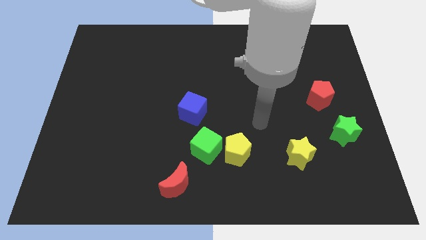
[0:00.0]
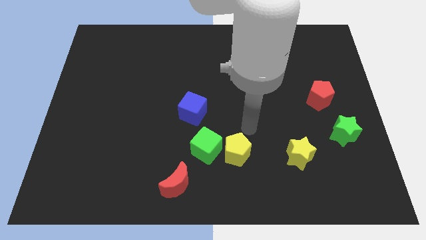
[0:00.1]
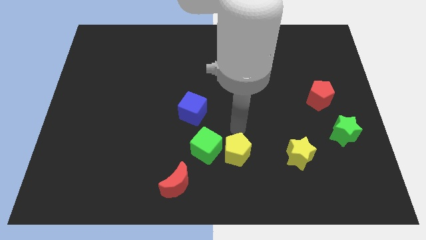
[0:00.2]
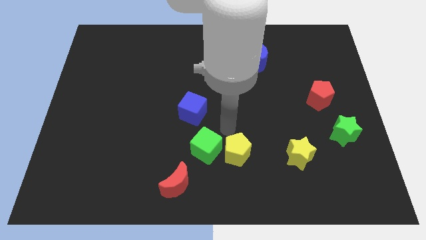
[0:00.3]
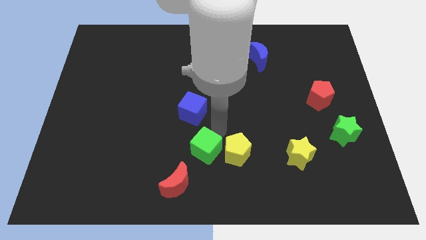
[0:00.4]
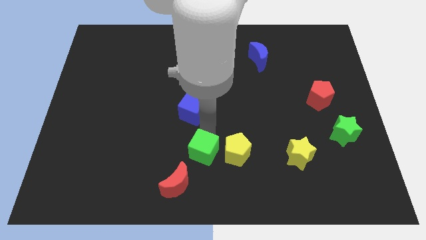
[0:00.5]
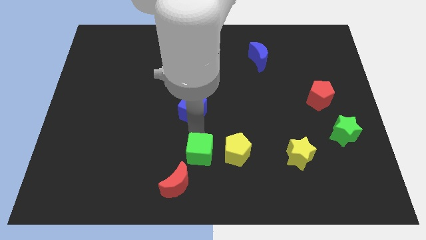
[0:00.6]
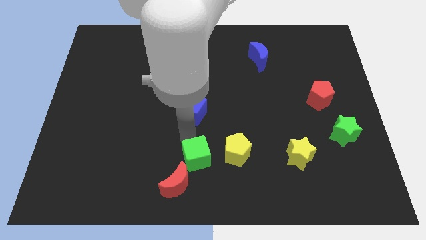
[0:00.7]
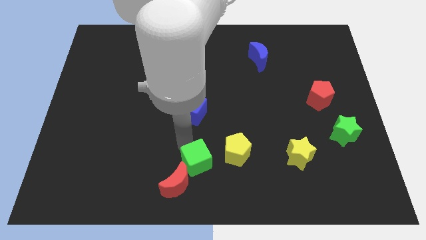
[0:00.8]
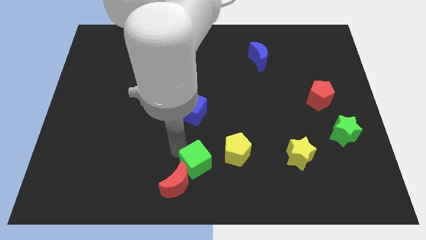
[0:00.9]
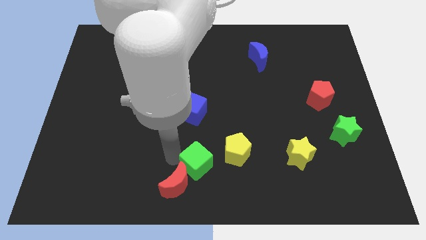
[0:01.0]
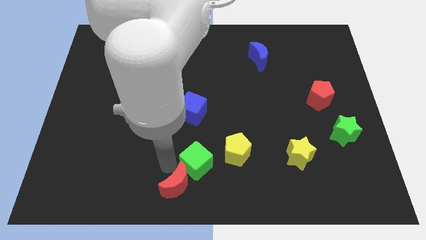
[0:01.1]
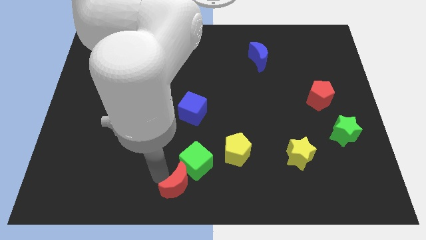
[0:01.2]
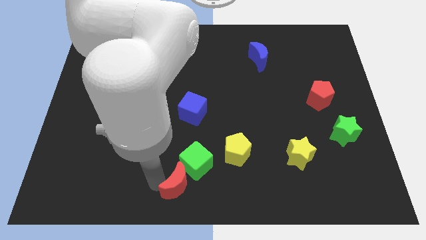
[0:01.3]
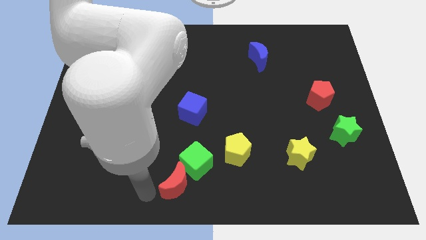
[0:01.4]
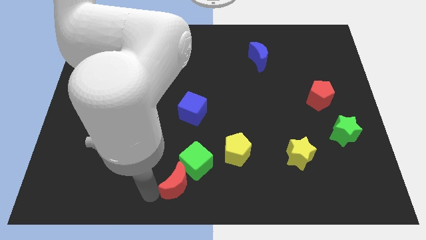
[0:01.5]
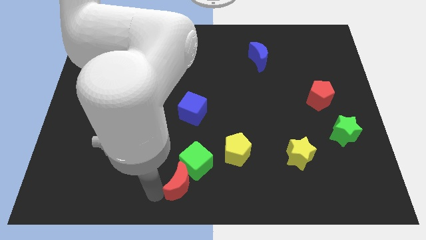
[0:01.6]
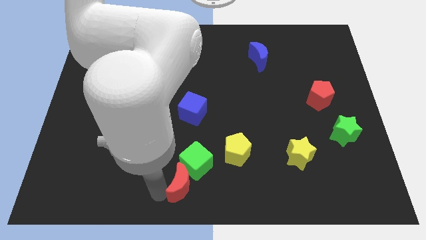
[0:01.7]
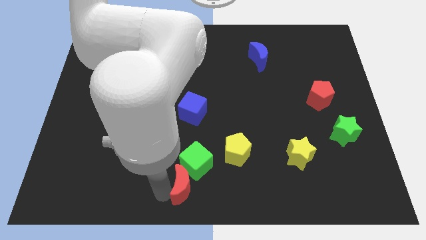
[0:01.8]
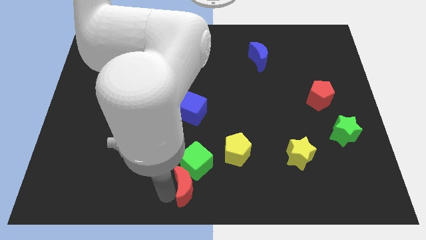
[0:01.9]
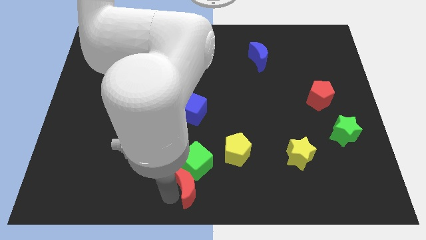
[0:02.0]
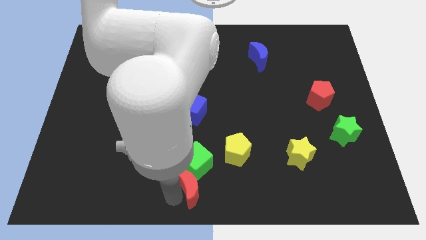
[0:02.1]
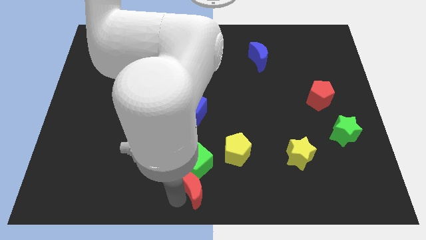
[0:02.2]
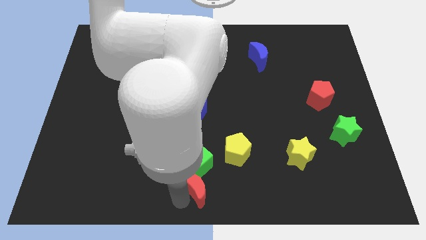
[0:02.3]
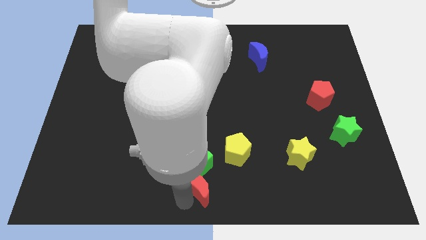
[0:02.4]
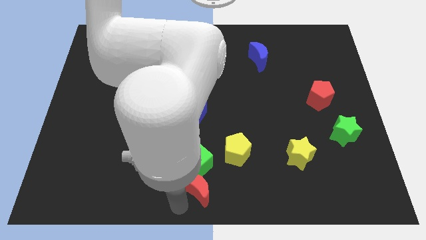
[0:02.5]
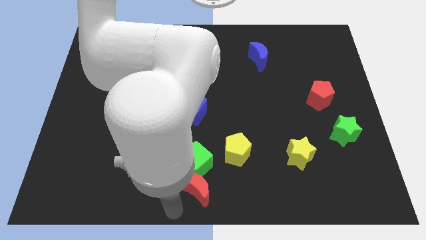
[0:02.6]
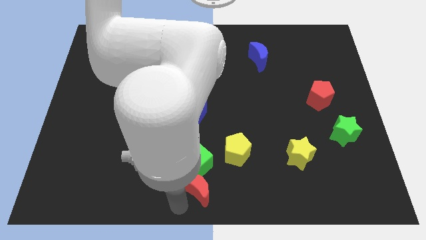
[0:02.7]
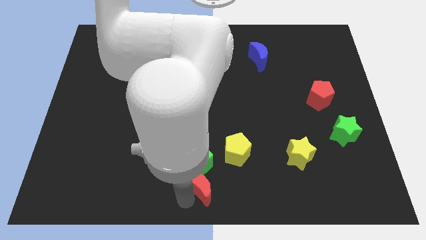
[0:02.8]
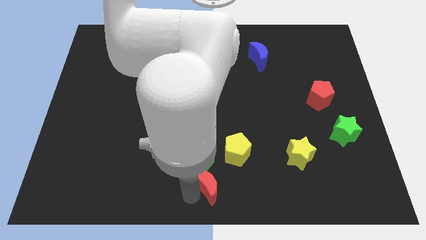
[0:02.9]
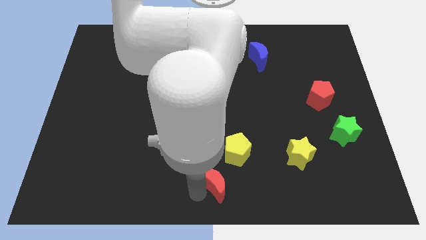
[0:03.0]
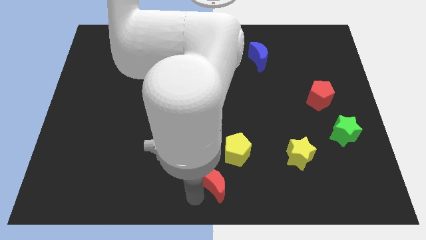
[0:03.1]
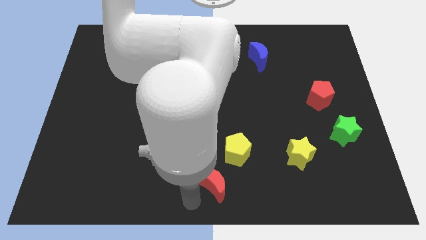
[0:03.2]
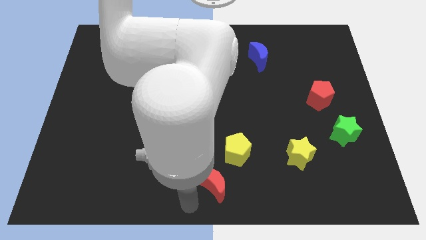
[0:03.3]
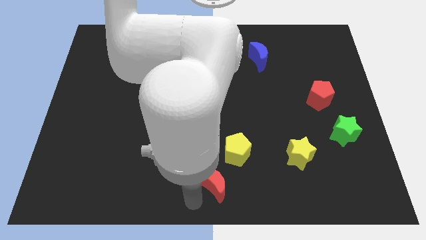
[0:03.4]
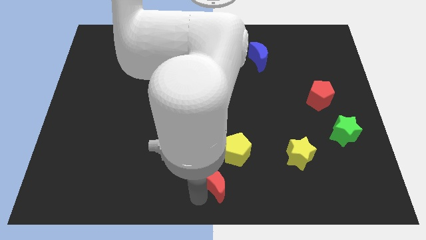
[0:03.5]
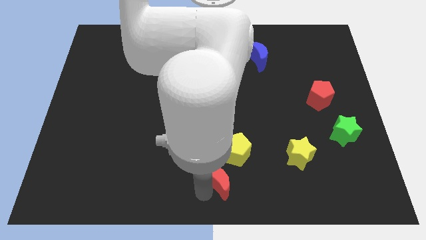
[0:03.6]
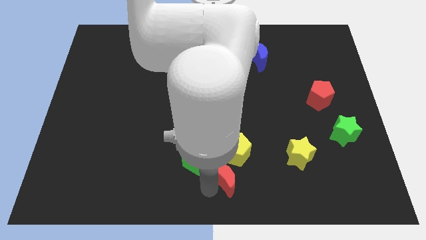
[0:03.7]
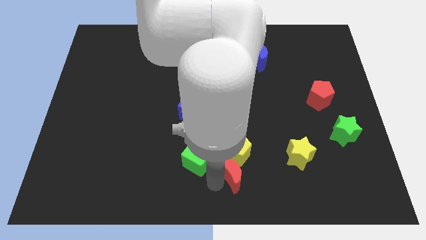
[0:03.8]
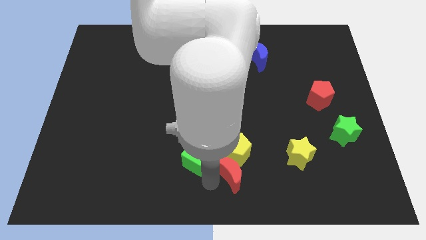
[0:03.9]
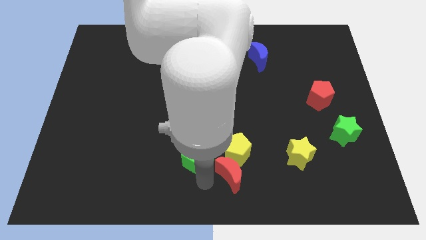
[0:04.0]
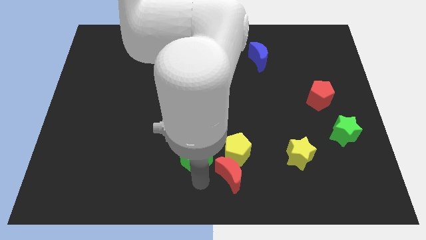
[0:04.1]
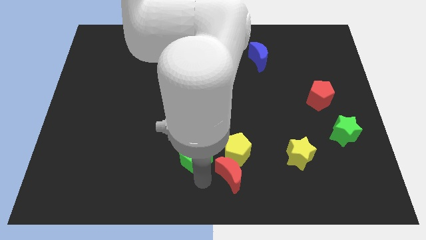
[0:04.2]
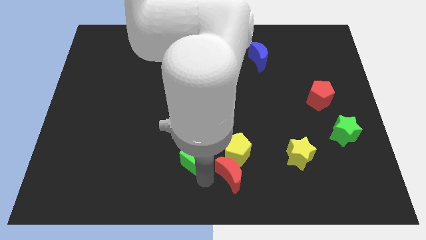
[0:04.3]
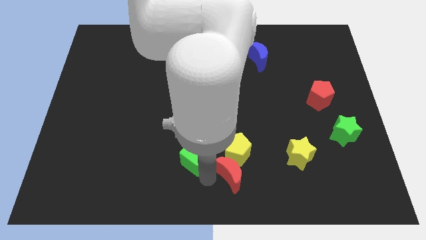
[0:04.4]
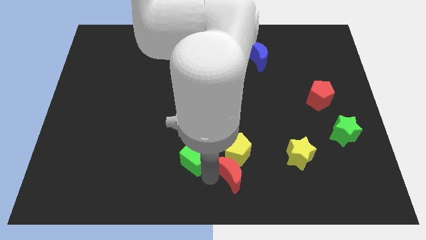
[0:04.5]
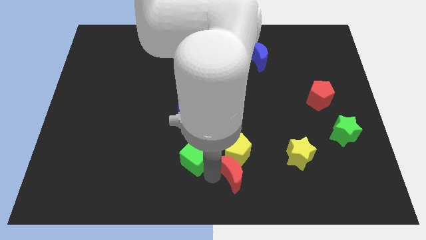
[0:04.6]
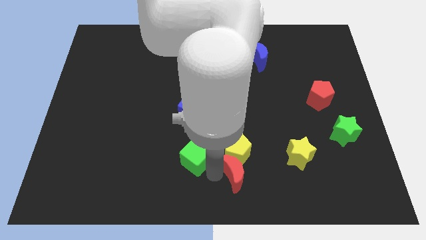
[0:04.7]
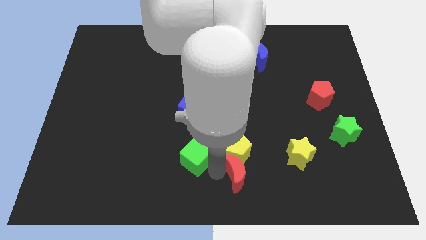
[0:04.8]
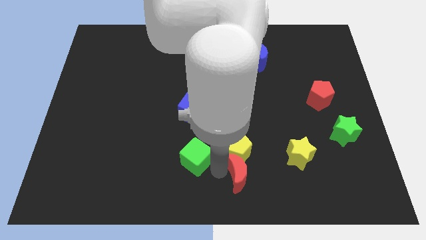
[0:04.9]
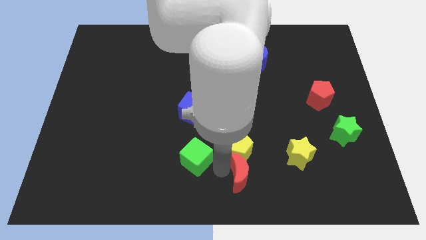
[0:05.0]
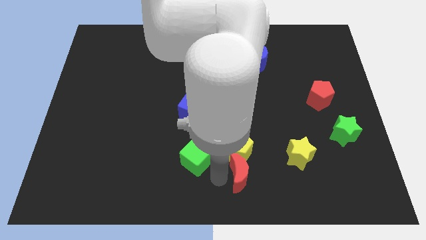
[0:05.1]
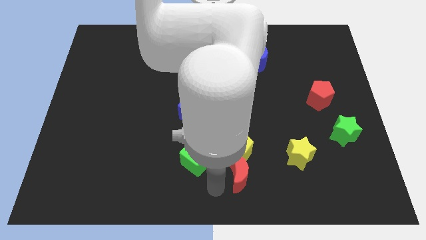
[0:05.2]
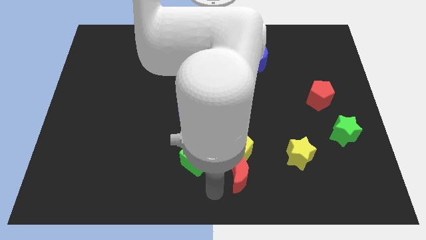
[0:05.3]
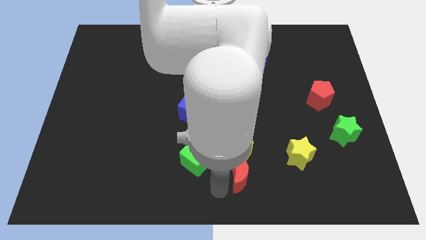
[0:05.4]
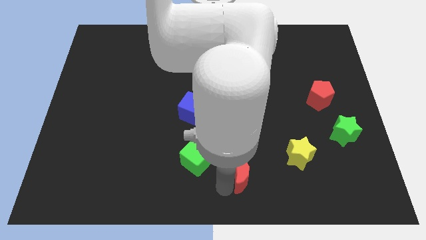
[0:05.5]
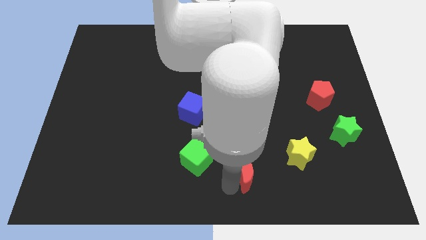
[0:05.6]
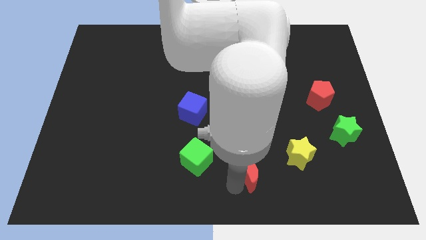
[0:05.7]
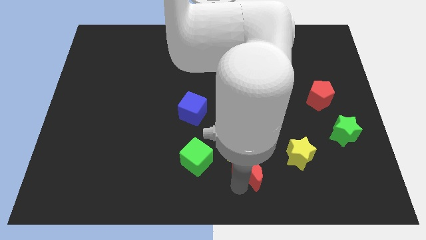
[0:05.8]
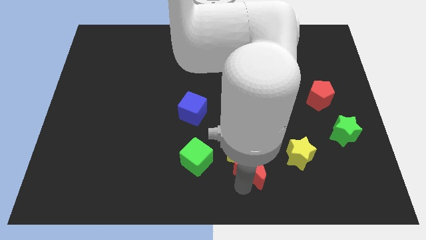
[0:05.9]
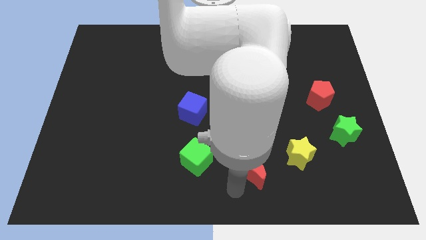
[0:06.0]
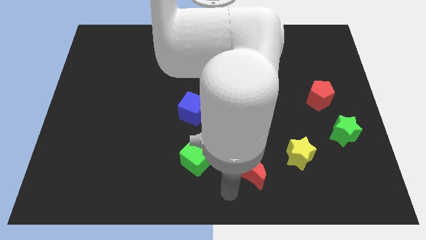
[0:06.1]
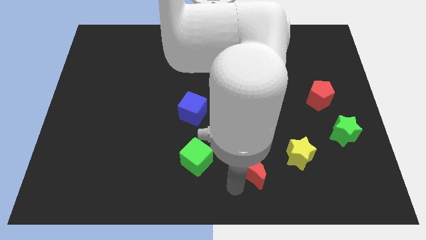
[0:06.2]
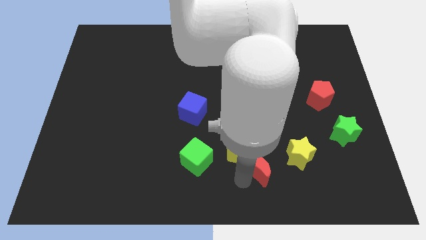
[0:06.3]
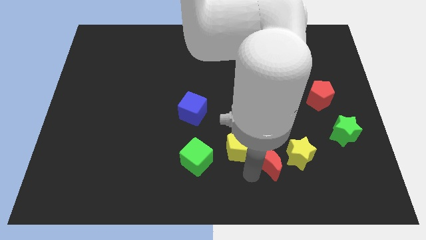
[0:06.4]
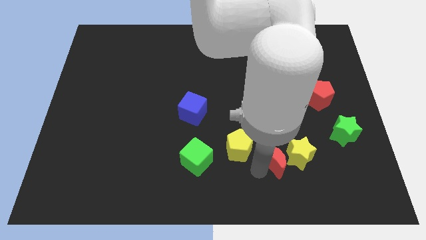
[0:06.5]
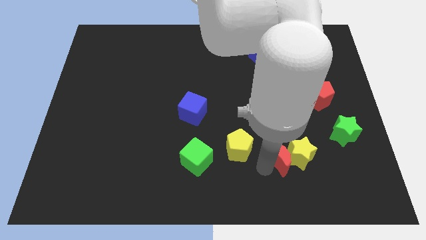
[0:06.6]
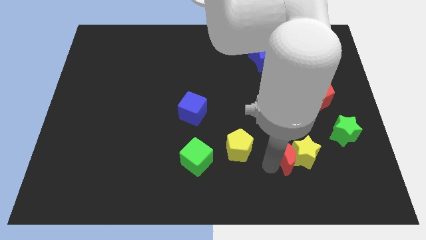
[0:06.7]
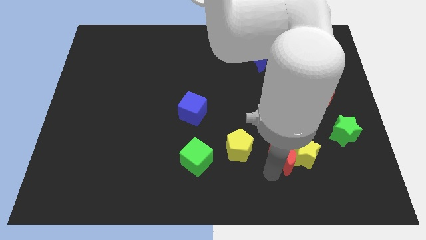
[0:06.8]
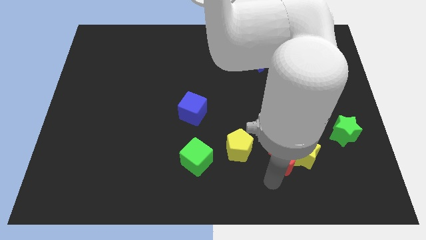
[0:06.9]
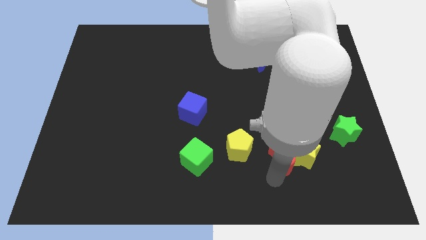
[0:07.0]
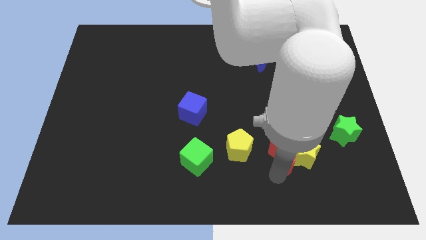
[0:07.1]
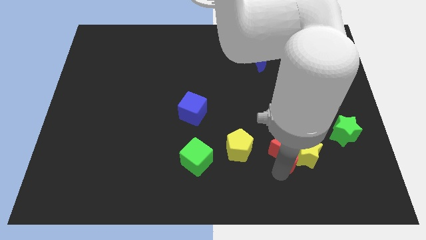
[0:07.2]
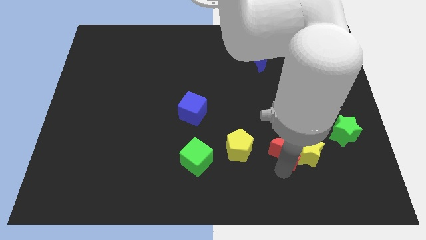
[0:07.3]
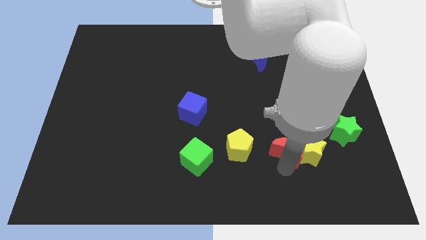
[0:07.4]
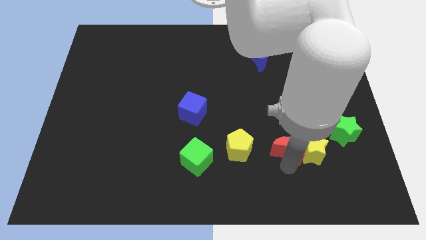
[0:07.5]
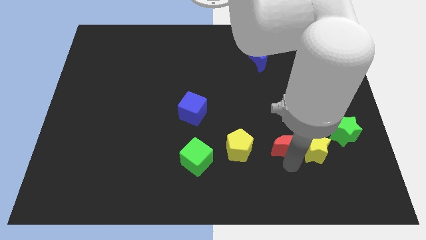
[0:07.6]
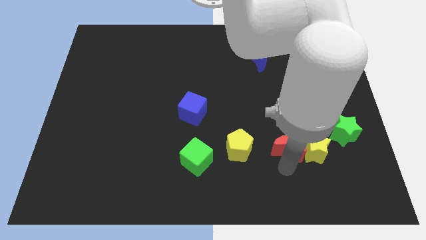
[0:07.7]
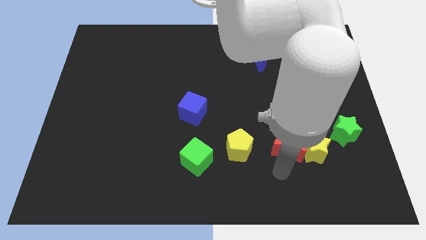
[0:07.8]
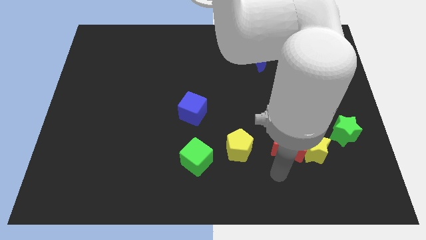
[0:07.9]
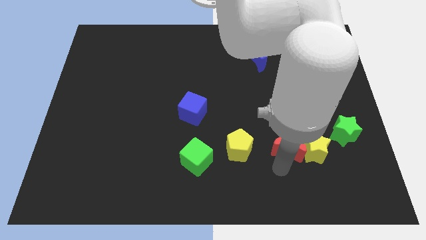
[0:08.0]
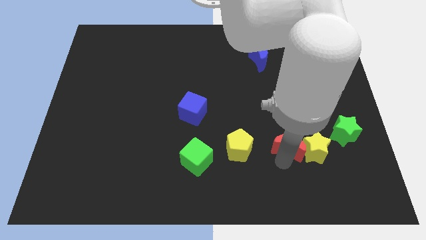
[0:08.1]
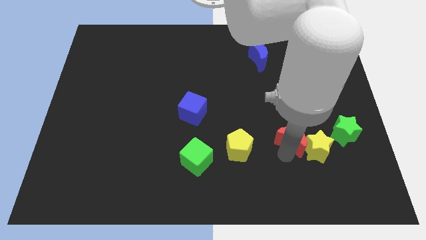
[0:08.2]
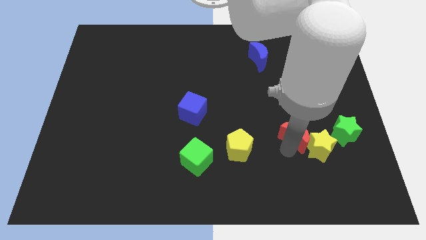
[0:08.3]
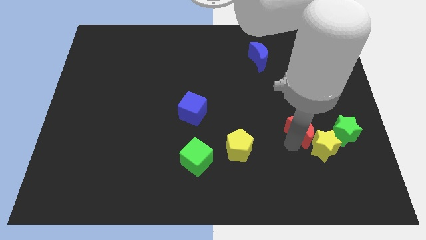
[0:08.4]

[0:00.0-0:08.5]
push the red moon to the bottom left of the red pentagon
